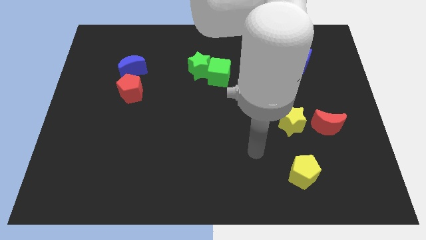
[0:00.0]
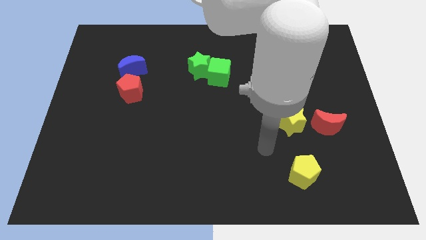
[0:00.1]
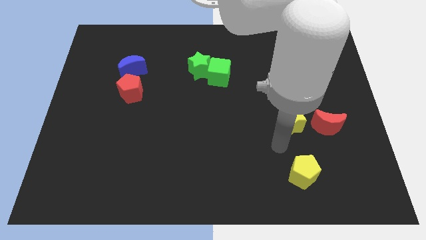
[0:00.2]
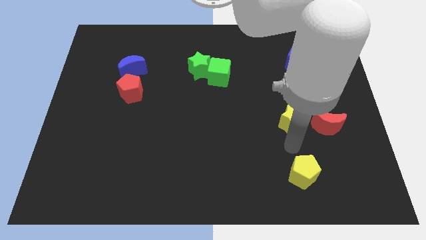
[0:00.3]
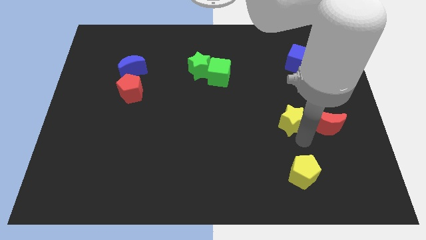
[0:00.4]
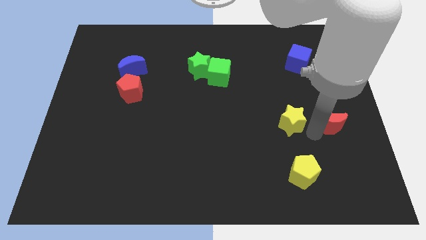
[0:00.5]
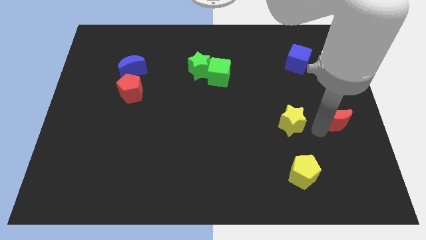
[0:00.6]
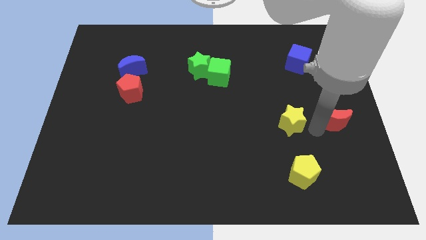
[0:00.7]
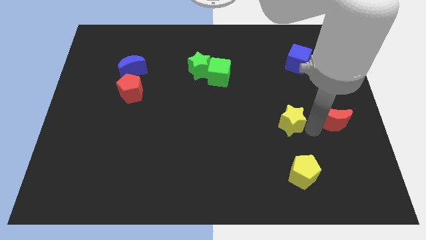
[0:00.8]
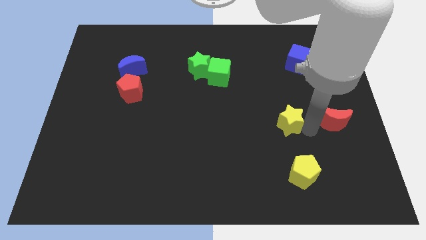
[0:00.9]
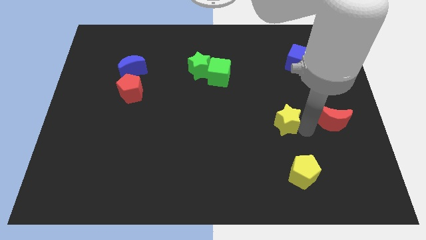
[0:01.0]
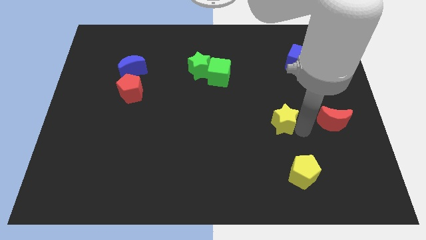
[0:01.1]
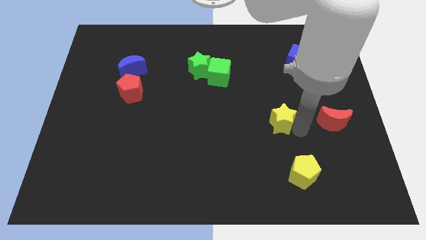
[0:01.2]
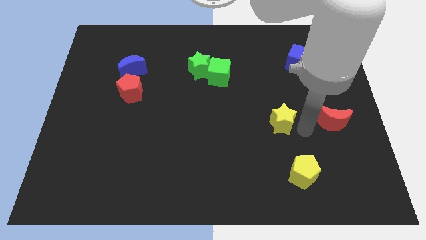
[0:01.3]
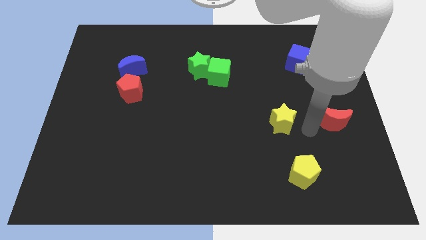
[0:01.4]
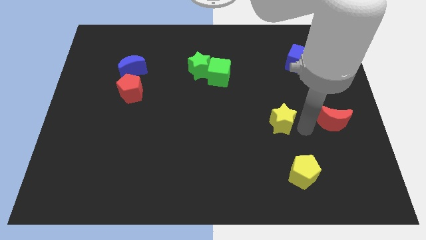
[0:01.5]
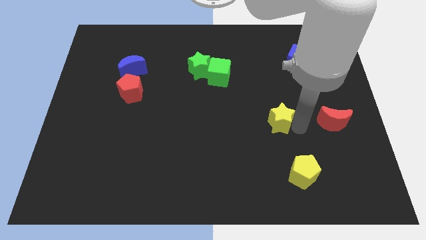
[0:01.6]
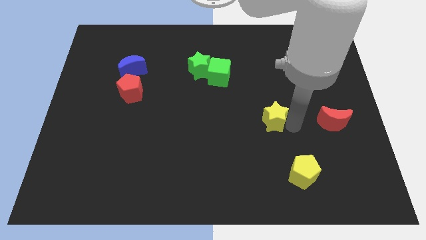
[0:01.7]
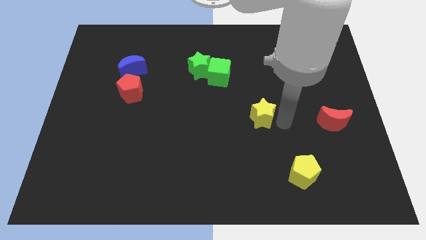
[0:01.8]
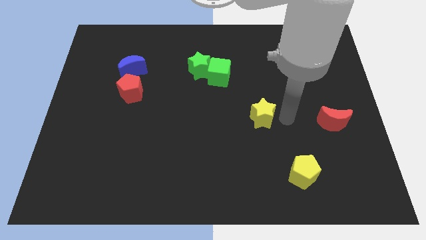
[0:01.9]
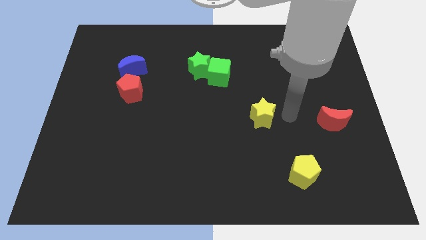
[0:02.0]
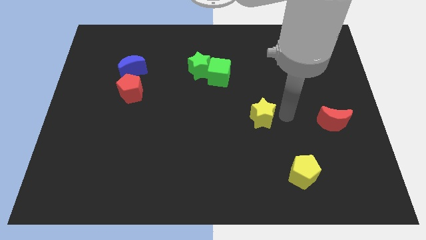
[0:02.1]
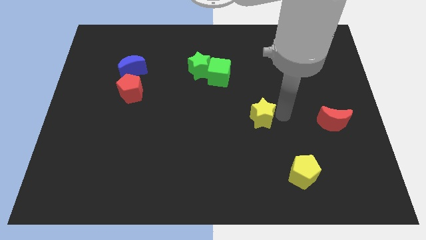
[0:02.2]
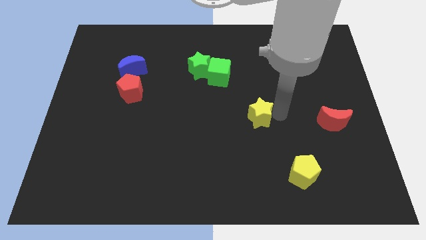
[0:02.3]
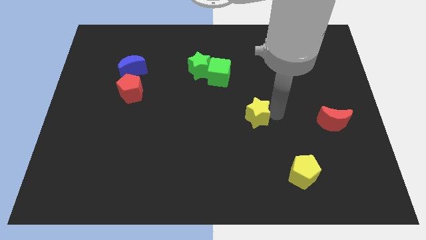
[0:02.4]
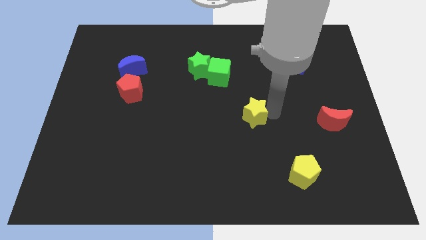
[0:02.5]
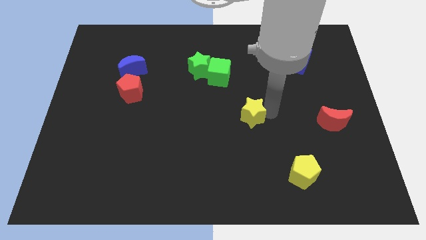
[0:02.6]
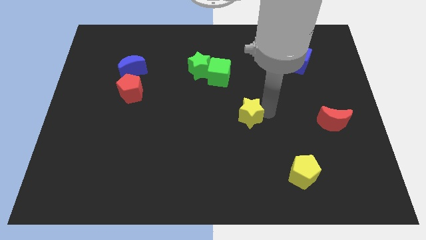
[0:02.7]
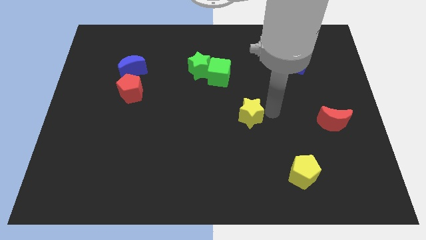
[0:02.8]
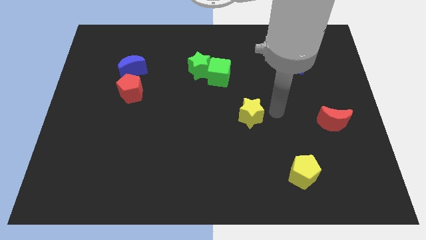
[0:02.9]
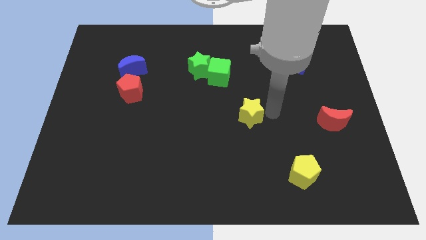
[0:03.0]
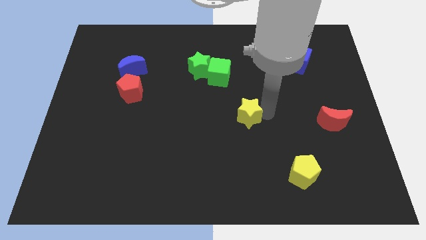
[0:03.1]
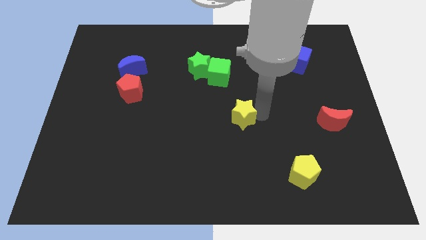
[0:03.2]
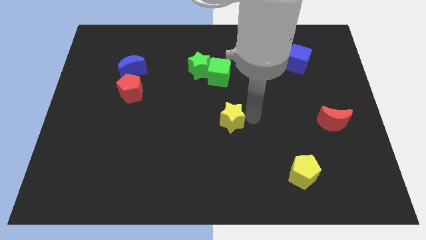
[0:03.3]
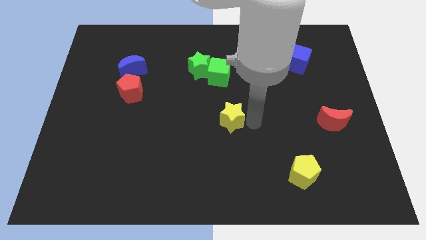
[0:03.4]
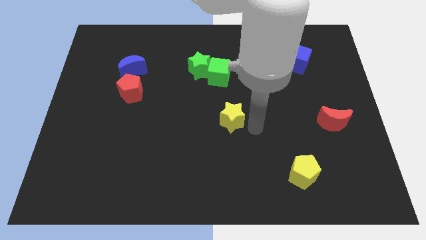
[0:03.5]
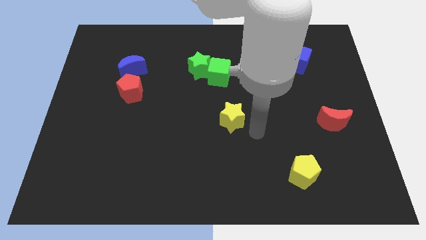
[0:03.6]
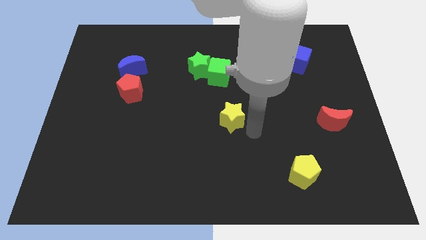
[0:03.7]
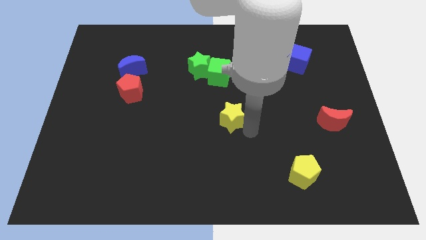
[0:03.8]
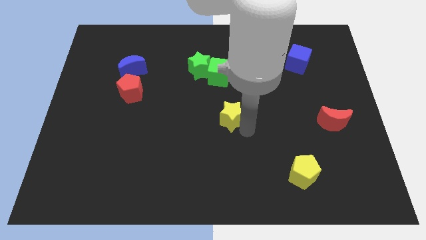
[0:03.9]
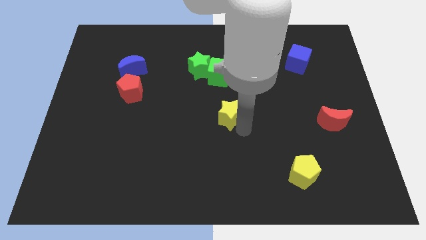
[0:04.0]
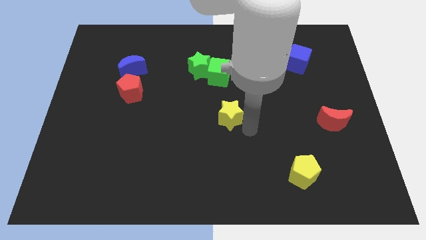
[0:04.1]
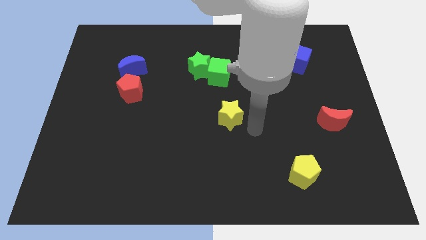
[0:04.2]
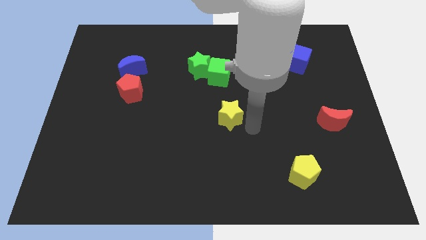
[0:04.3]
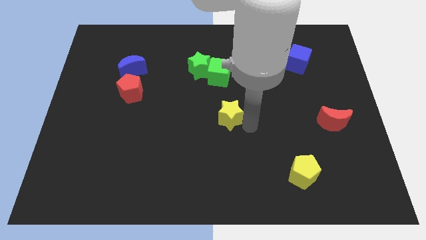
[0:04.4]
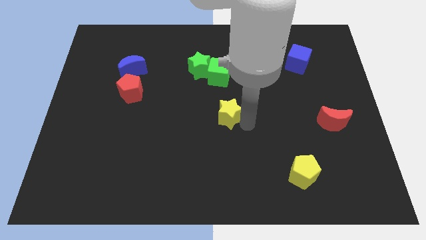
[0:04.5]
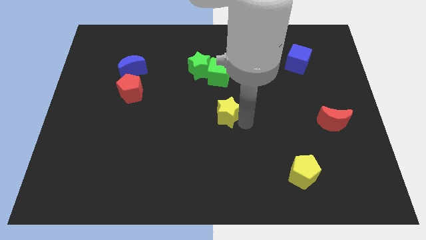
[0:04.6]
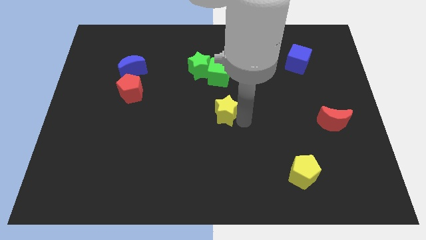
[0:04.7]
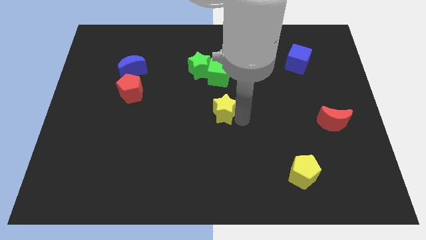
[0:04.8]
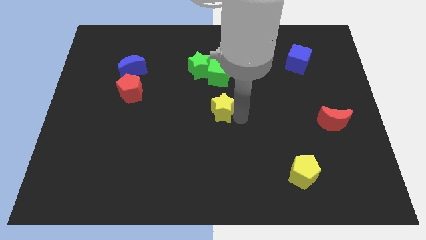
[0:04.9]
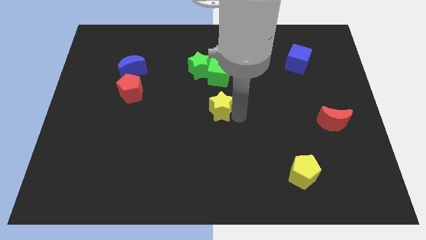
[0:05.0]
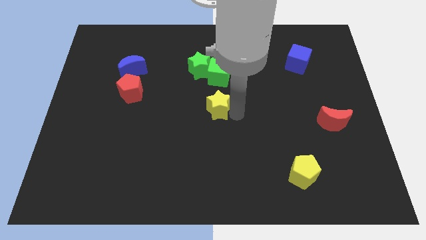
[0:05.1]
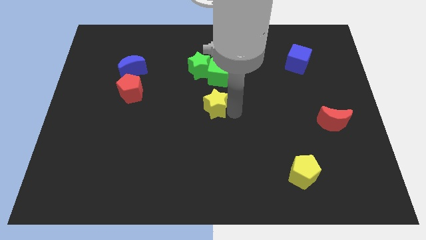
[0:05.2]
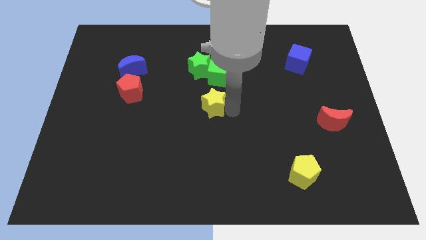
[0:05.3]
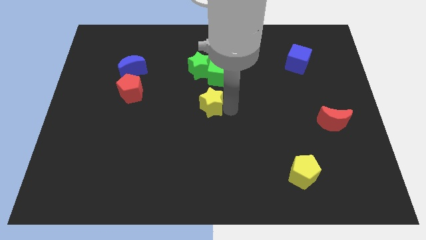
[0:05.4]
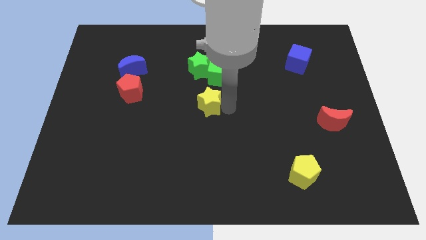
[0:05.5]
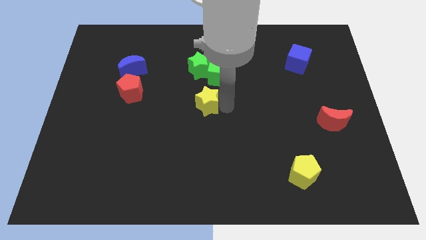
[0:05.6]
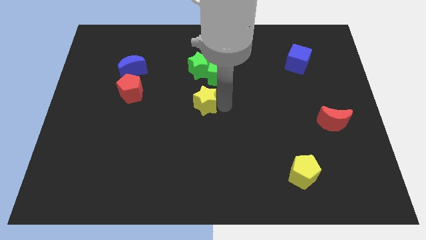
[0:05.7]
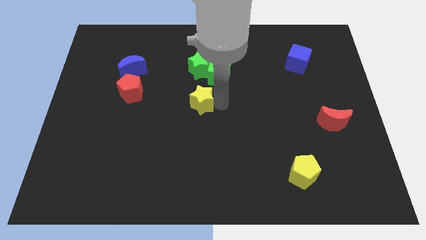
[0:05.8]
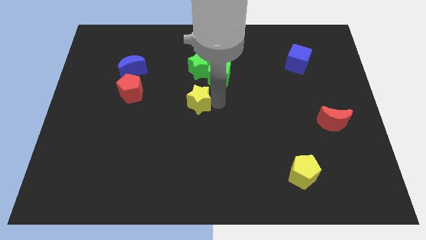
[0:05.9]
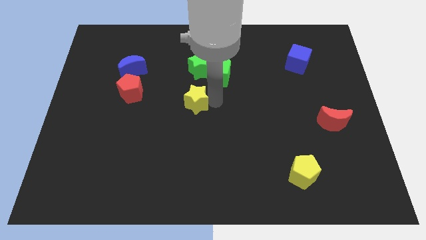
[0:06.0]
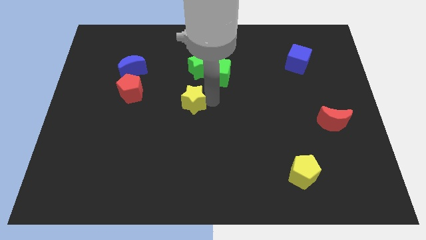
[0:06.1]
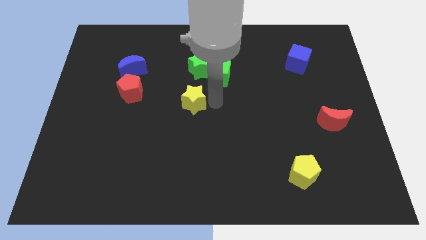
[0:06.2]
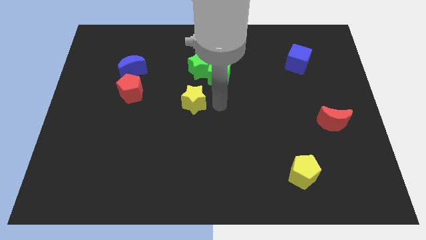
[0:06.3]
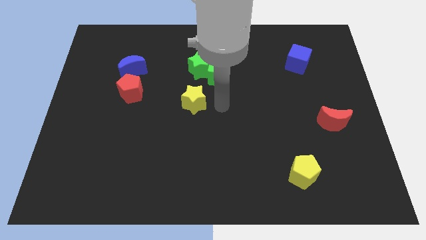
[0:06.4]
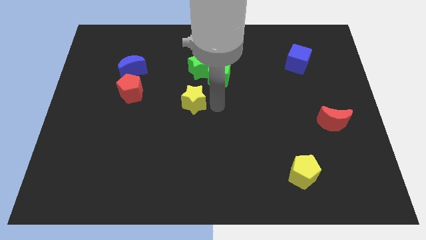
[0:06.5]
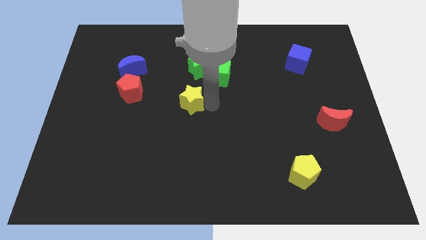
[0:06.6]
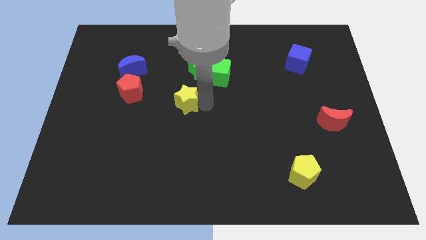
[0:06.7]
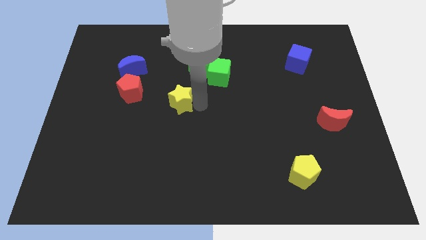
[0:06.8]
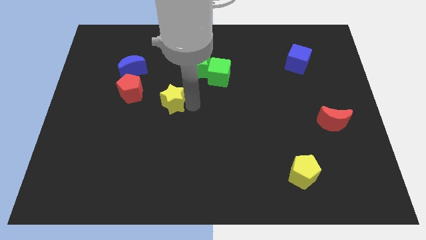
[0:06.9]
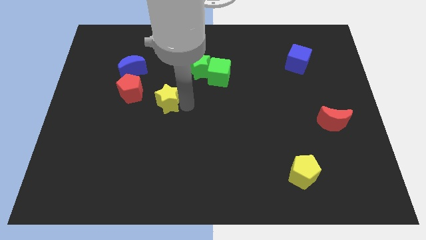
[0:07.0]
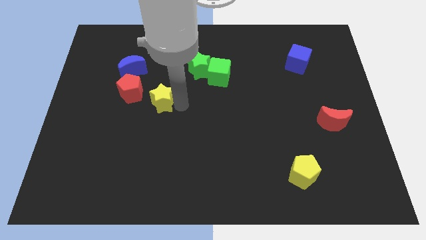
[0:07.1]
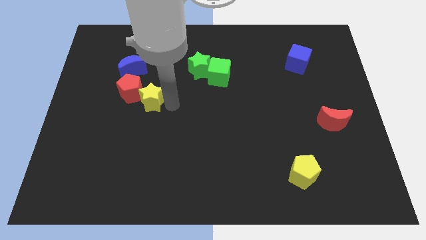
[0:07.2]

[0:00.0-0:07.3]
slide the yellow star towards the red pentagon

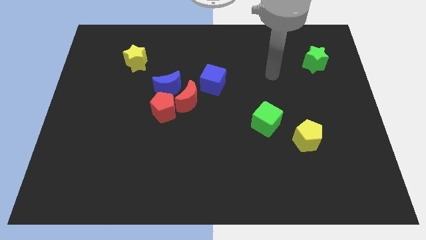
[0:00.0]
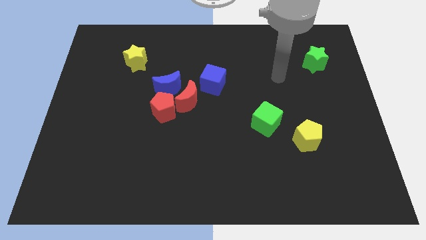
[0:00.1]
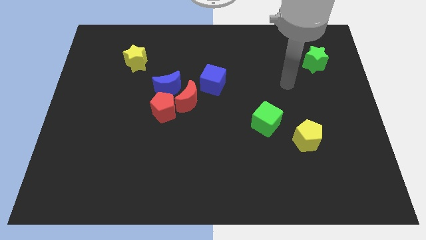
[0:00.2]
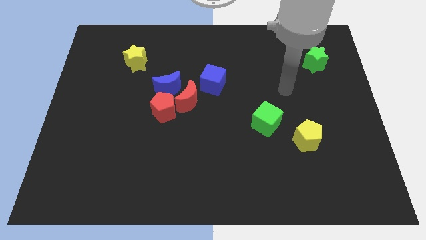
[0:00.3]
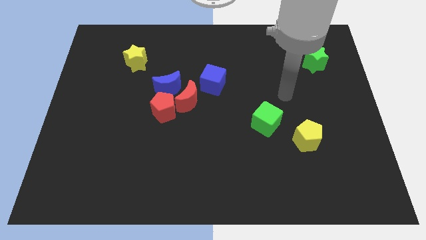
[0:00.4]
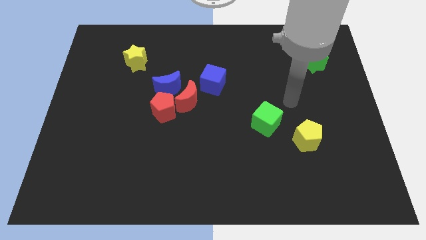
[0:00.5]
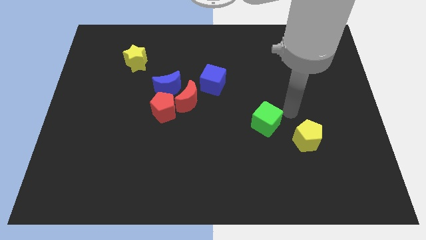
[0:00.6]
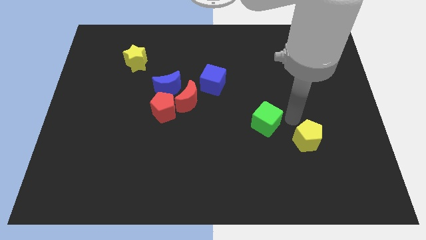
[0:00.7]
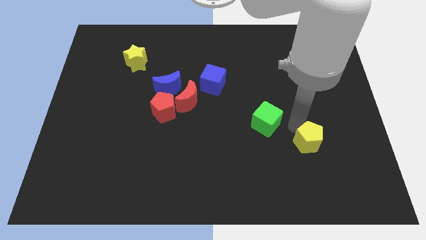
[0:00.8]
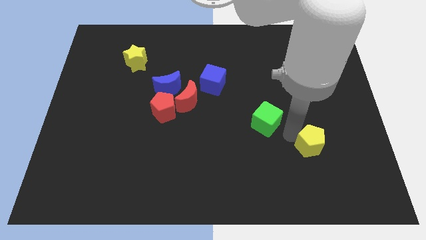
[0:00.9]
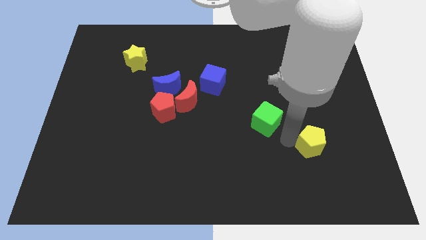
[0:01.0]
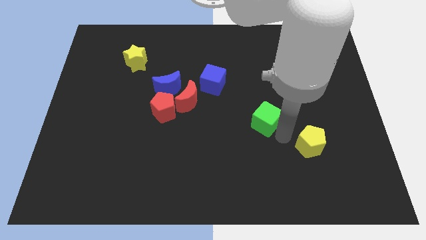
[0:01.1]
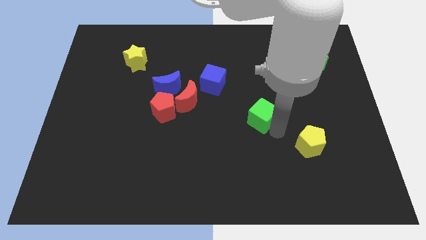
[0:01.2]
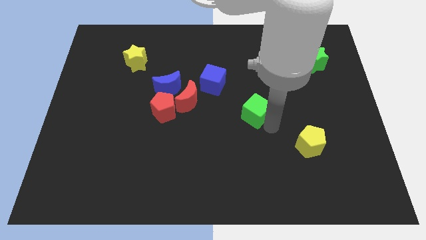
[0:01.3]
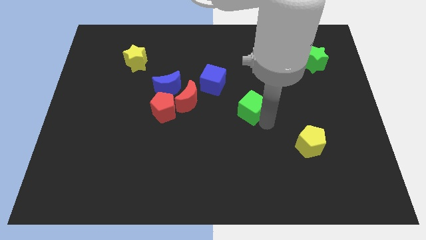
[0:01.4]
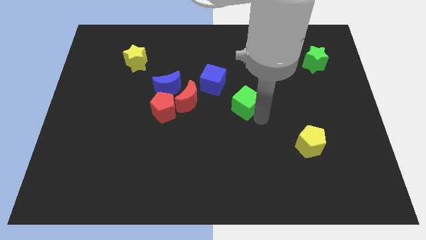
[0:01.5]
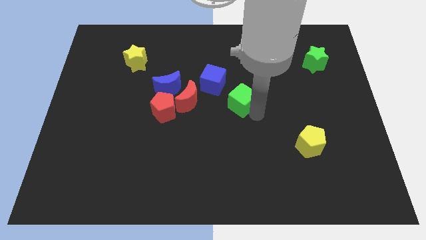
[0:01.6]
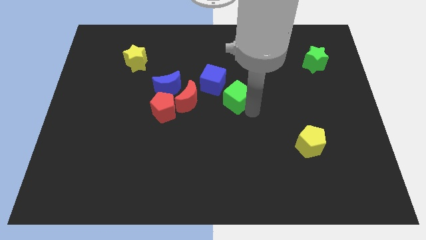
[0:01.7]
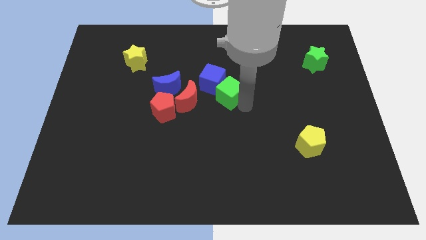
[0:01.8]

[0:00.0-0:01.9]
push the green cube close to the blue cube
